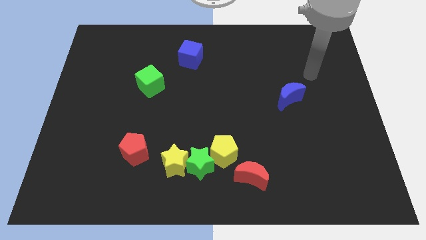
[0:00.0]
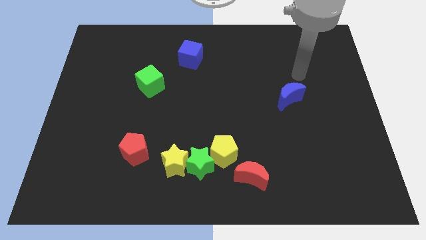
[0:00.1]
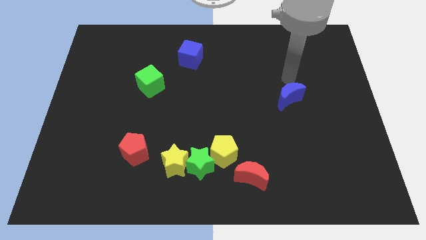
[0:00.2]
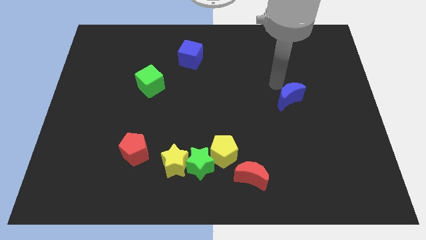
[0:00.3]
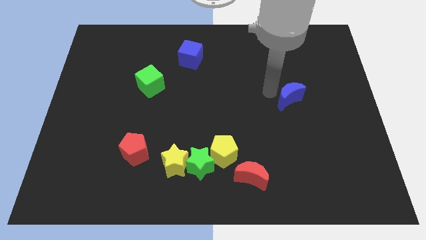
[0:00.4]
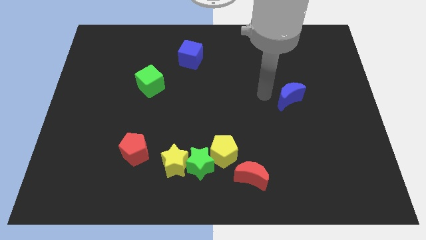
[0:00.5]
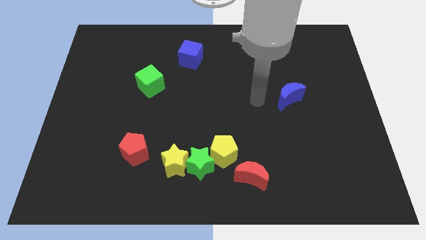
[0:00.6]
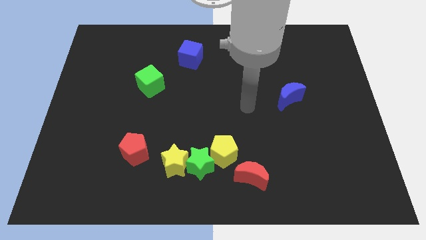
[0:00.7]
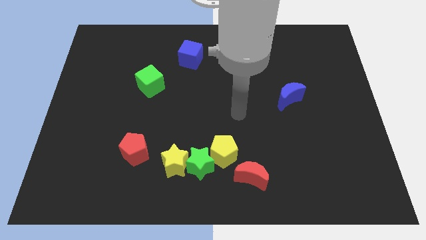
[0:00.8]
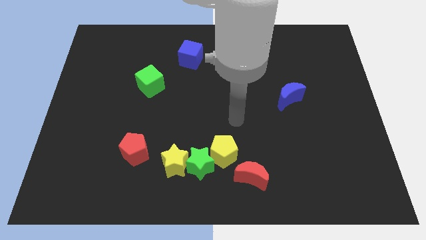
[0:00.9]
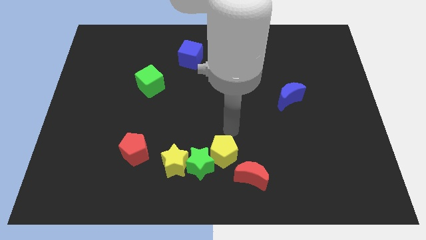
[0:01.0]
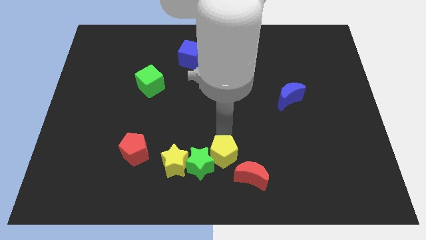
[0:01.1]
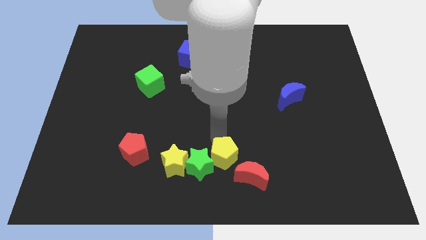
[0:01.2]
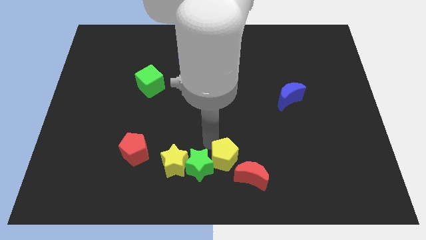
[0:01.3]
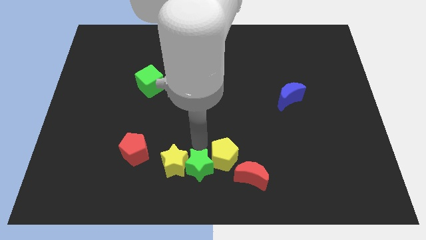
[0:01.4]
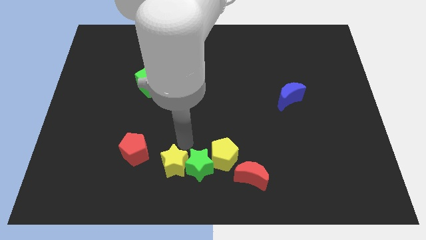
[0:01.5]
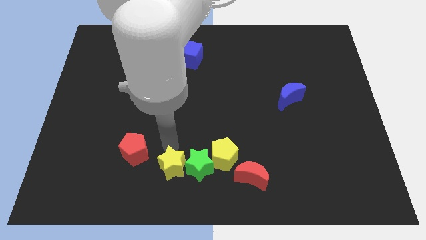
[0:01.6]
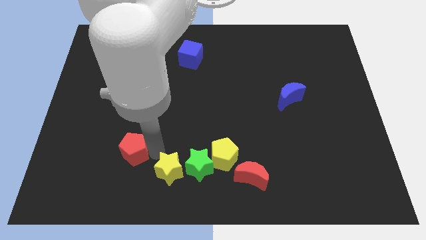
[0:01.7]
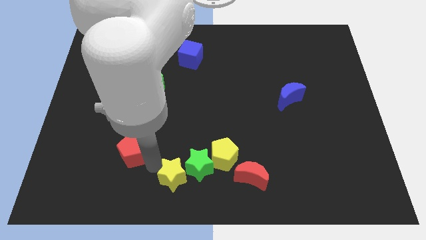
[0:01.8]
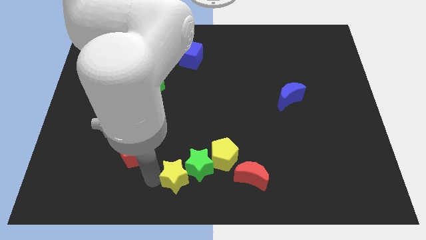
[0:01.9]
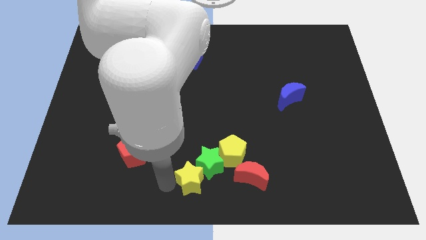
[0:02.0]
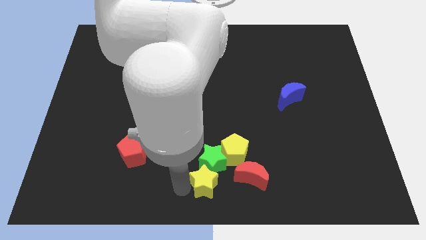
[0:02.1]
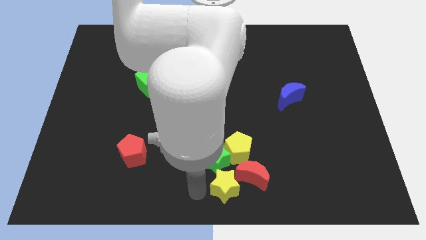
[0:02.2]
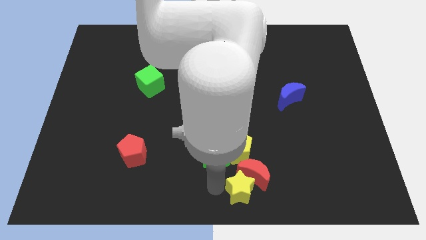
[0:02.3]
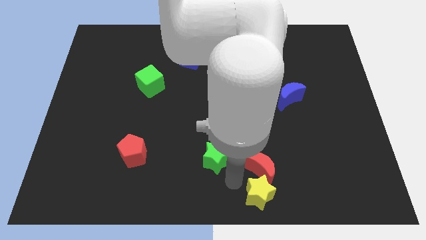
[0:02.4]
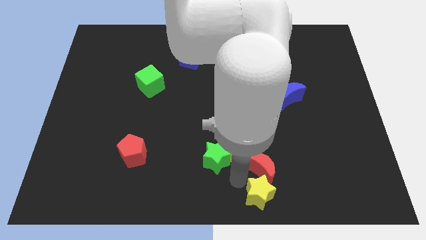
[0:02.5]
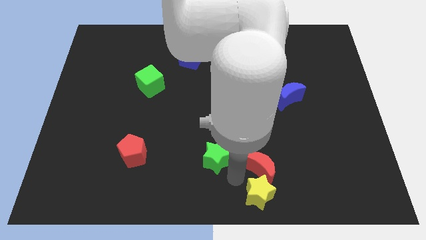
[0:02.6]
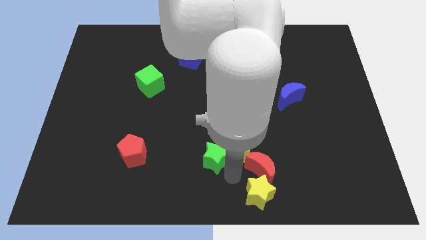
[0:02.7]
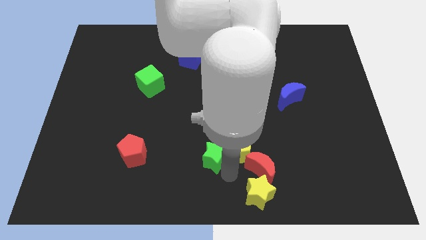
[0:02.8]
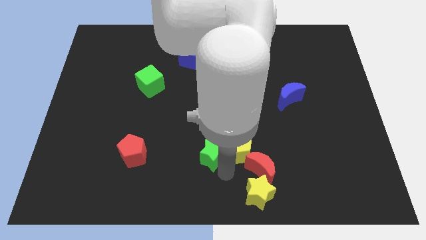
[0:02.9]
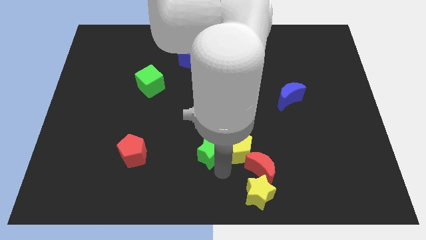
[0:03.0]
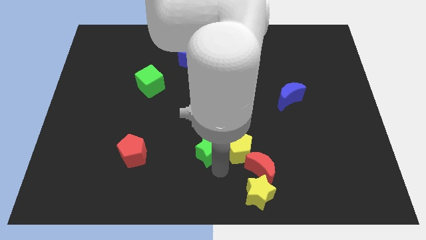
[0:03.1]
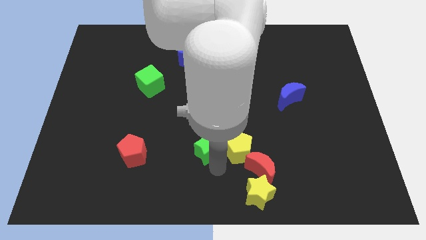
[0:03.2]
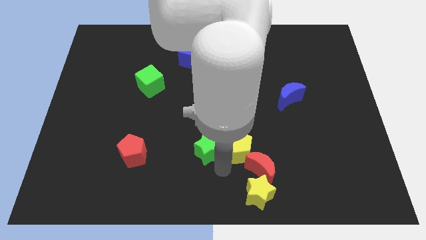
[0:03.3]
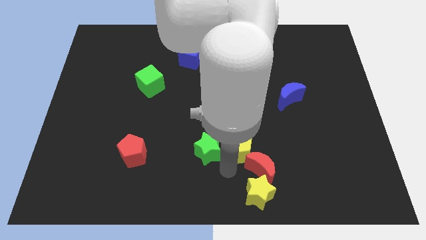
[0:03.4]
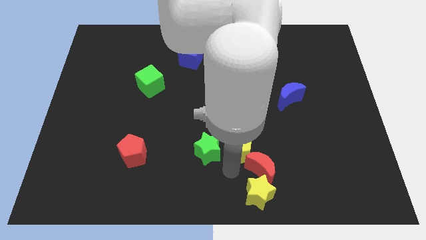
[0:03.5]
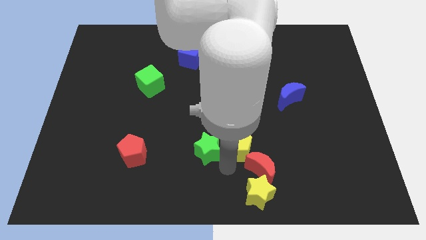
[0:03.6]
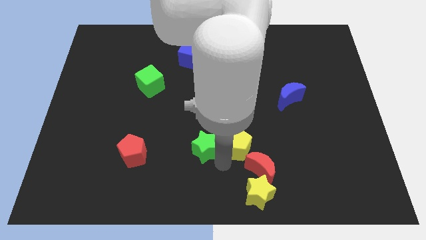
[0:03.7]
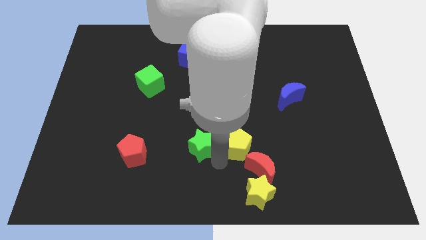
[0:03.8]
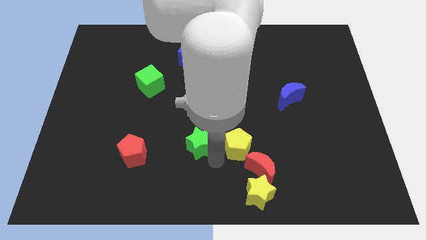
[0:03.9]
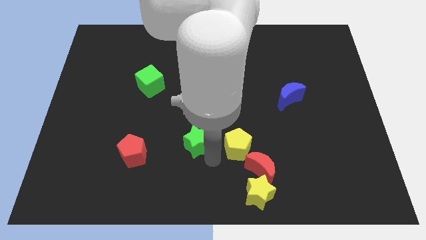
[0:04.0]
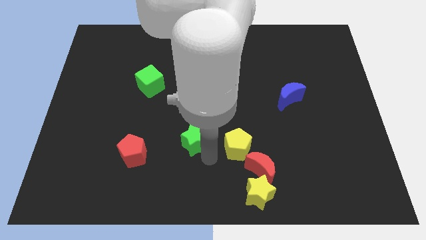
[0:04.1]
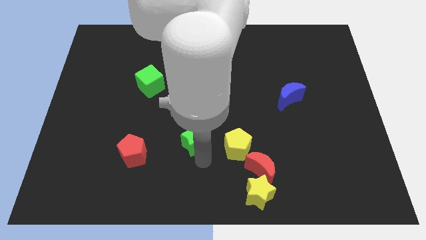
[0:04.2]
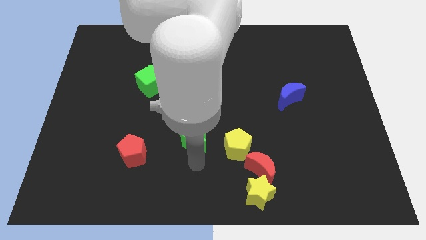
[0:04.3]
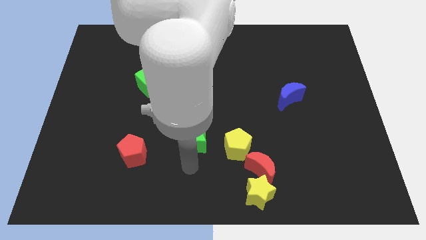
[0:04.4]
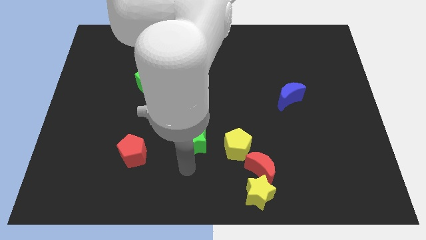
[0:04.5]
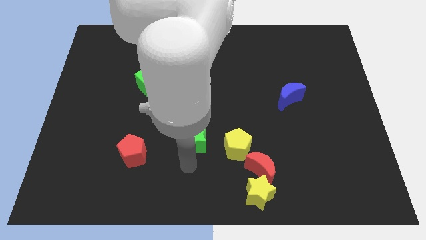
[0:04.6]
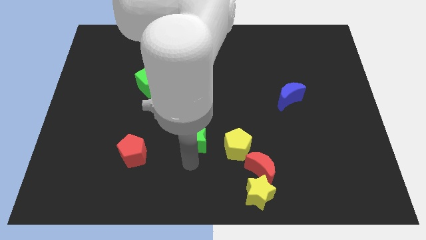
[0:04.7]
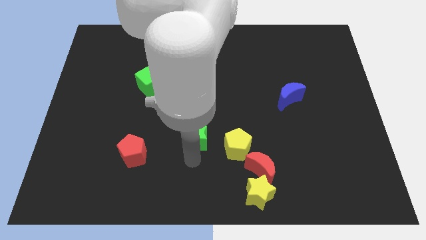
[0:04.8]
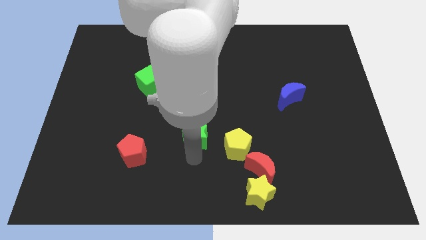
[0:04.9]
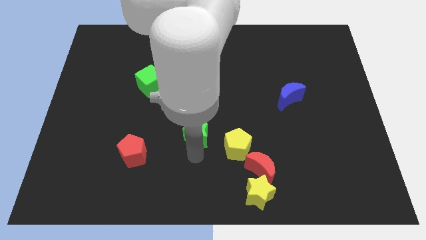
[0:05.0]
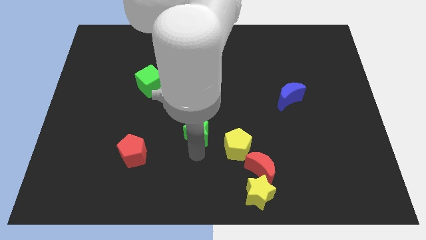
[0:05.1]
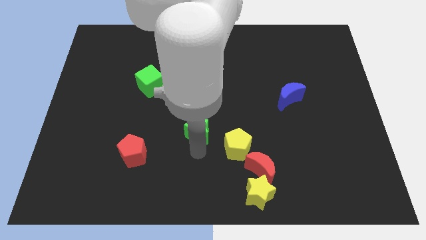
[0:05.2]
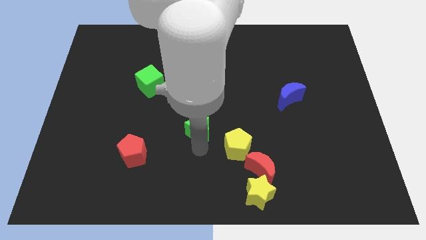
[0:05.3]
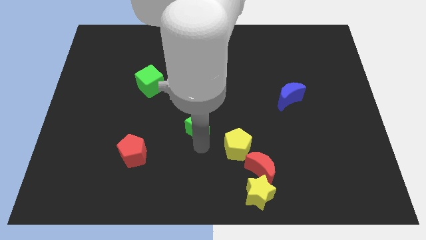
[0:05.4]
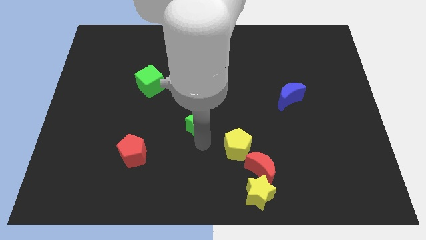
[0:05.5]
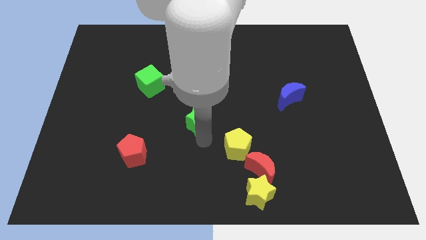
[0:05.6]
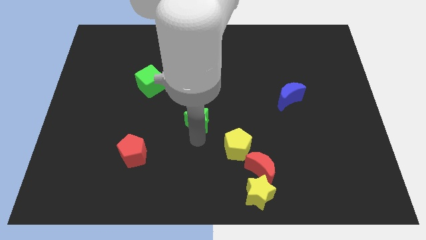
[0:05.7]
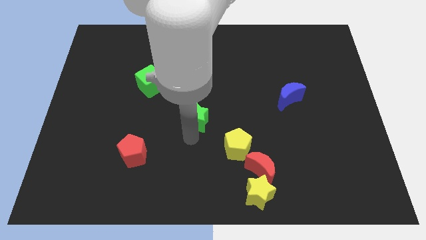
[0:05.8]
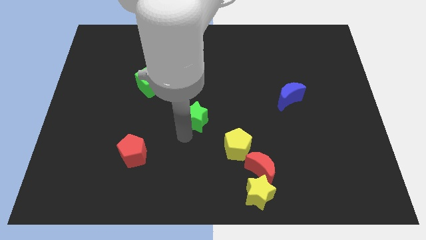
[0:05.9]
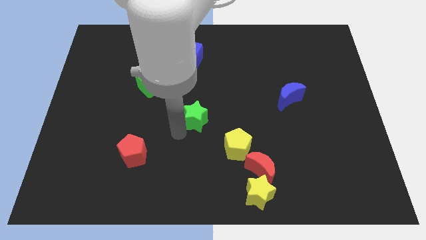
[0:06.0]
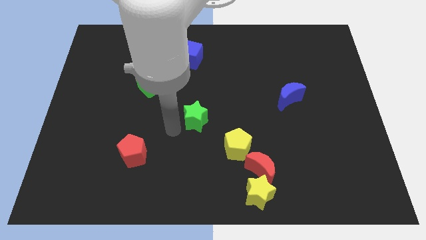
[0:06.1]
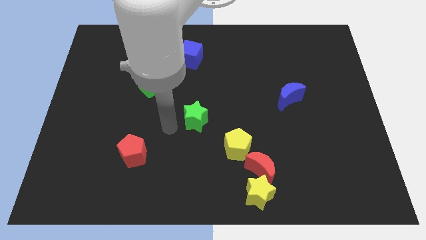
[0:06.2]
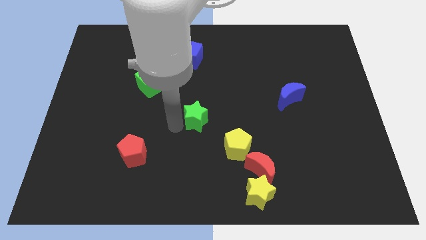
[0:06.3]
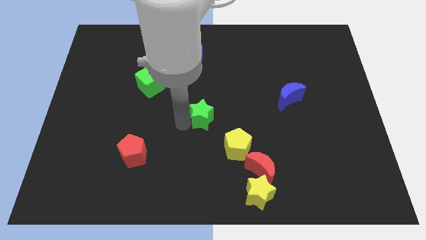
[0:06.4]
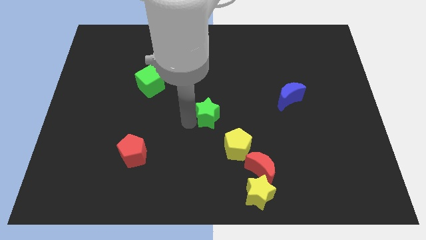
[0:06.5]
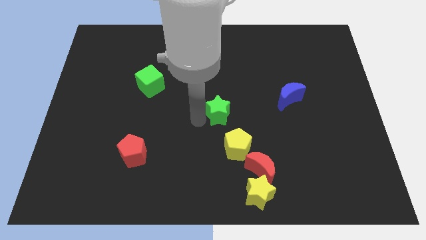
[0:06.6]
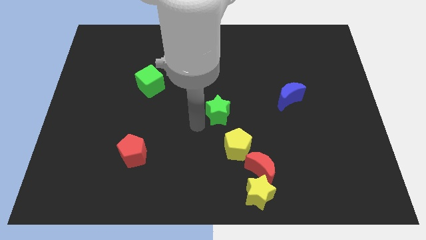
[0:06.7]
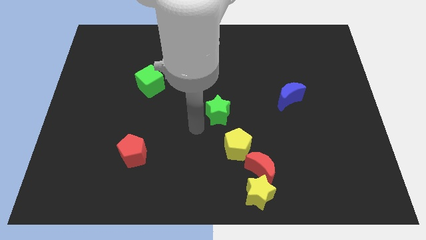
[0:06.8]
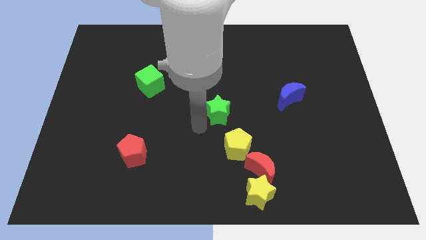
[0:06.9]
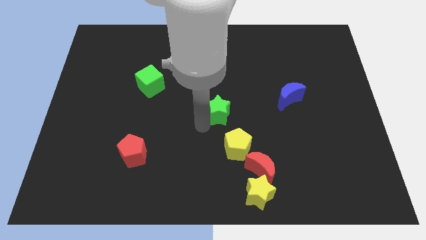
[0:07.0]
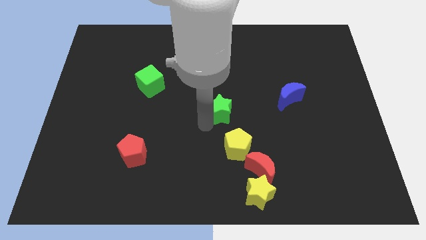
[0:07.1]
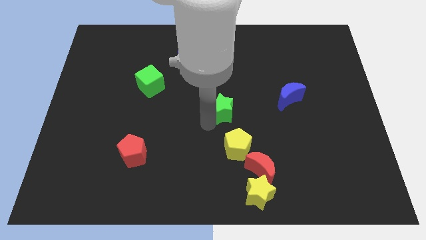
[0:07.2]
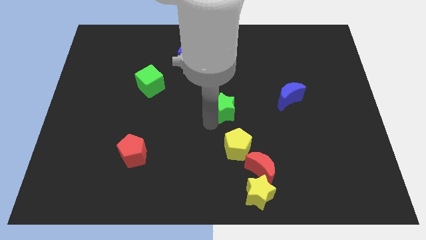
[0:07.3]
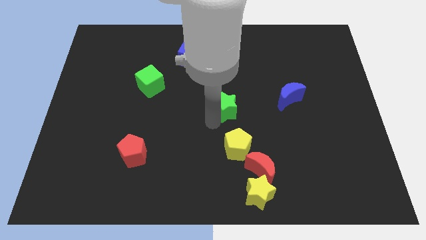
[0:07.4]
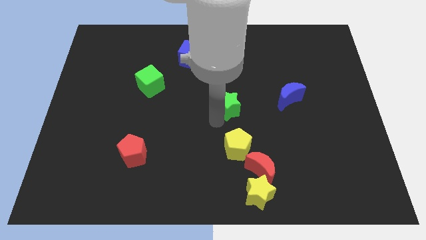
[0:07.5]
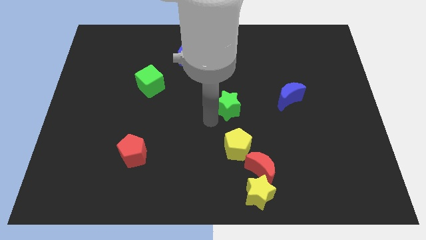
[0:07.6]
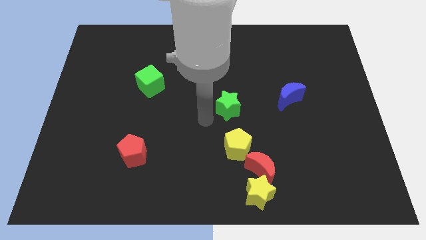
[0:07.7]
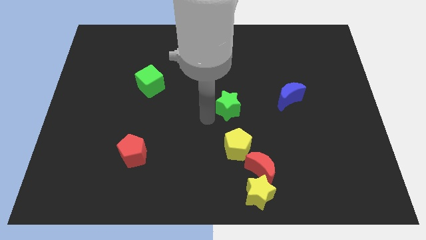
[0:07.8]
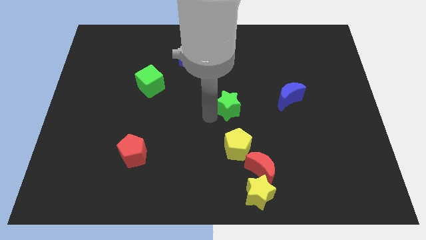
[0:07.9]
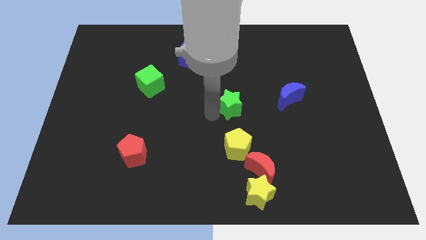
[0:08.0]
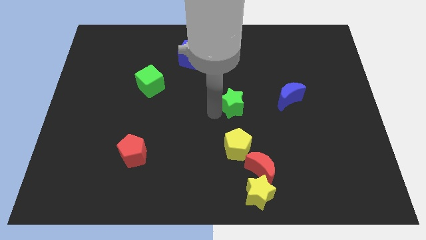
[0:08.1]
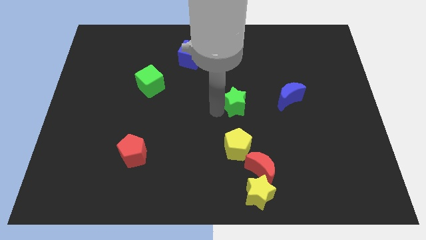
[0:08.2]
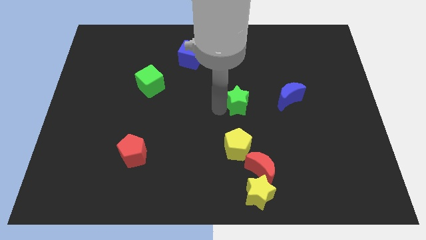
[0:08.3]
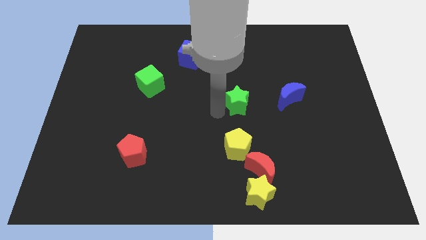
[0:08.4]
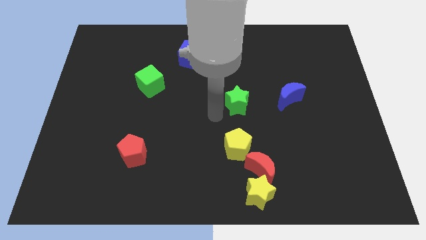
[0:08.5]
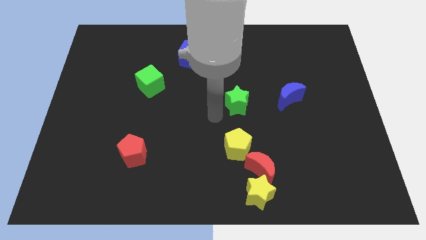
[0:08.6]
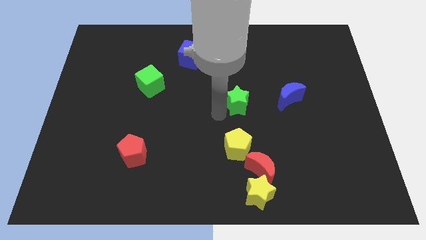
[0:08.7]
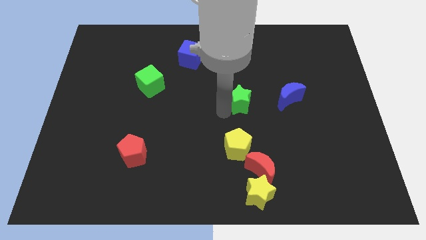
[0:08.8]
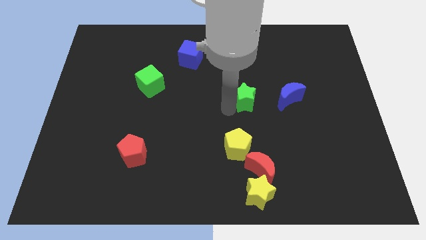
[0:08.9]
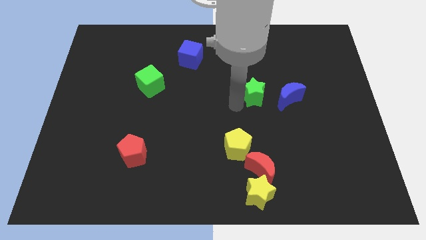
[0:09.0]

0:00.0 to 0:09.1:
push the green star up and then right
